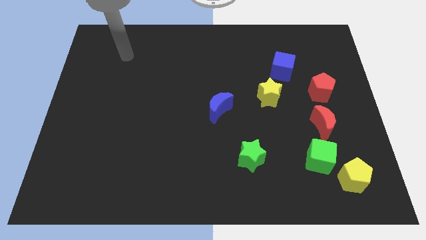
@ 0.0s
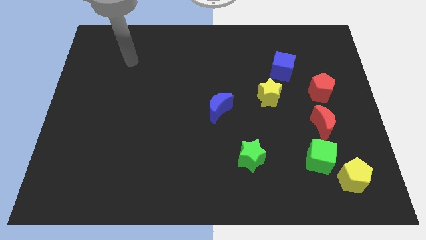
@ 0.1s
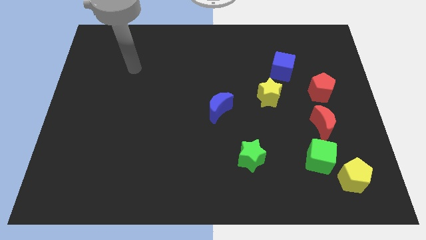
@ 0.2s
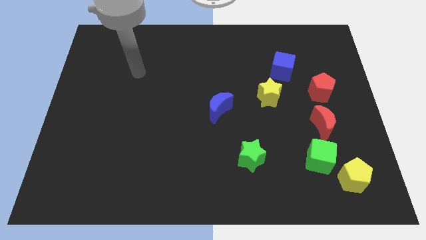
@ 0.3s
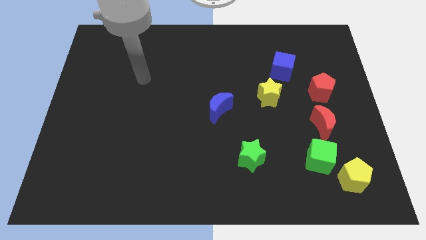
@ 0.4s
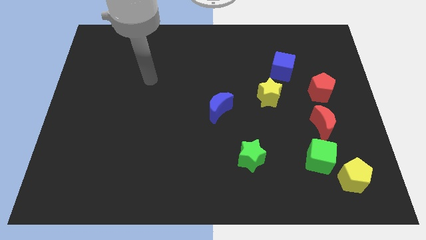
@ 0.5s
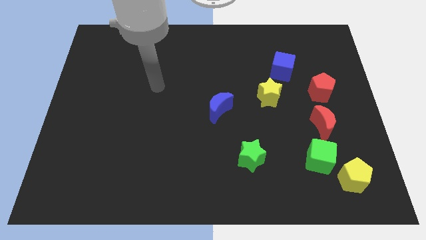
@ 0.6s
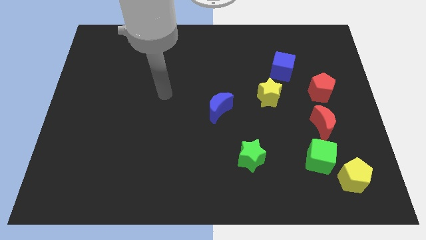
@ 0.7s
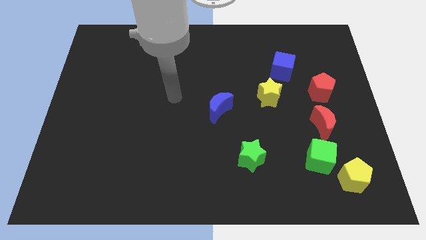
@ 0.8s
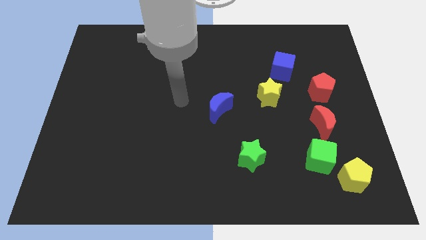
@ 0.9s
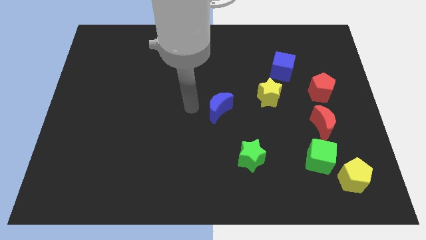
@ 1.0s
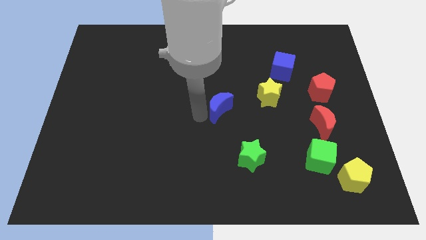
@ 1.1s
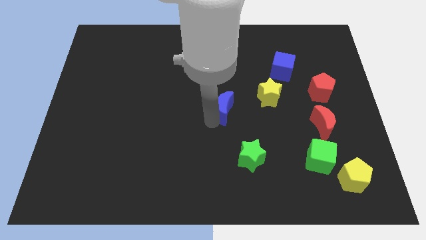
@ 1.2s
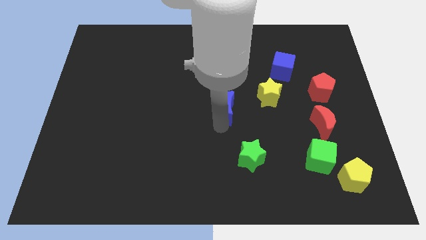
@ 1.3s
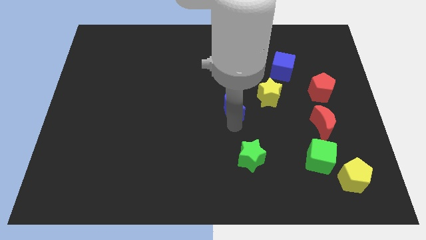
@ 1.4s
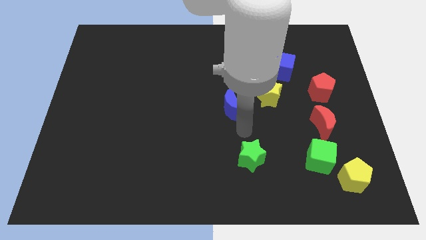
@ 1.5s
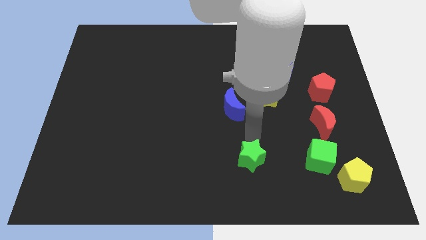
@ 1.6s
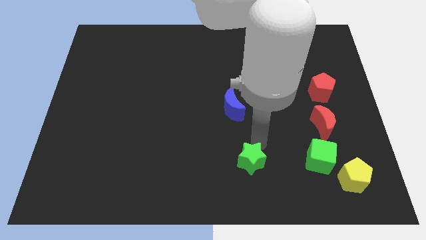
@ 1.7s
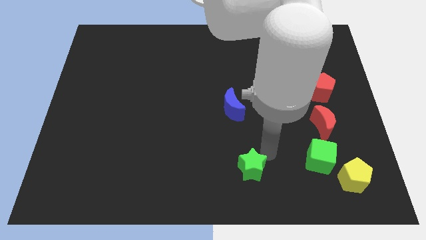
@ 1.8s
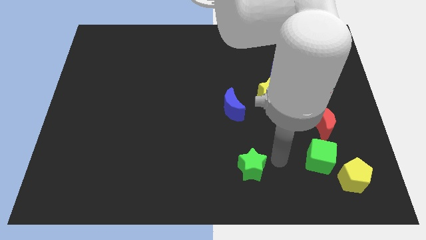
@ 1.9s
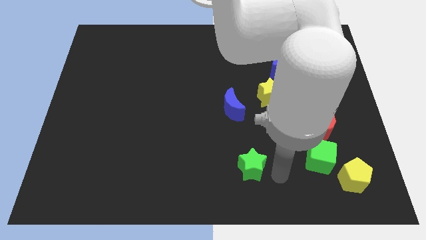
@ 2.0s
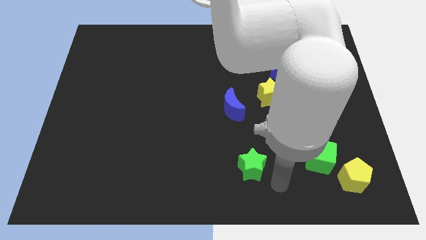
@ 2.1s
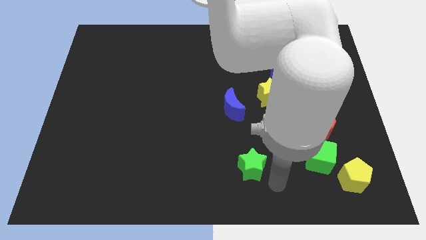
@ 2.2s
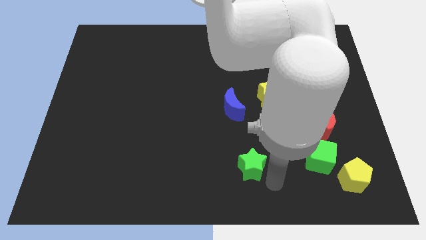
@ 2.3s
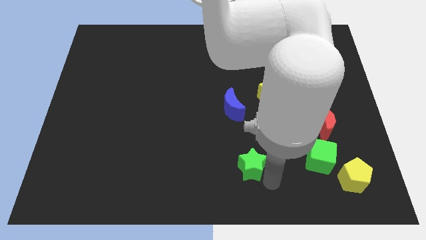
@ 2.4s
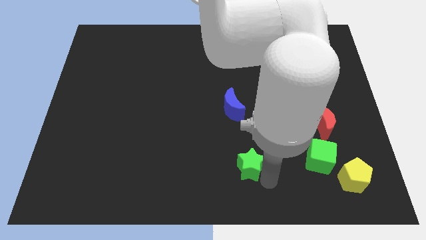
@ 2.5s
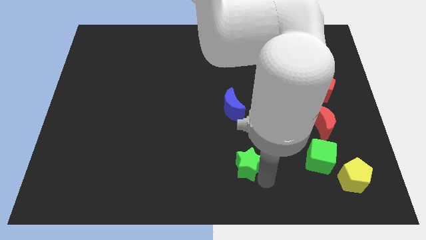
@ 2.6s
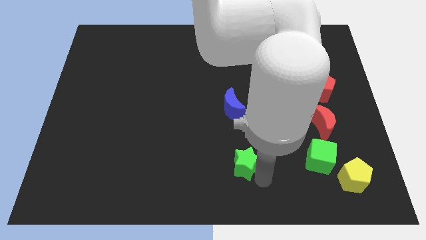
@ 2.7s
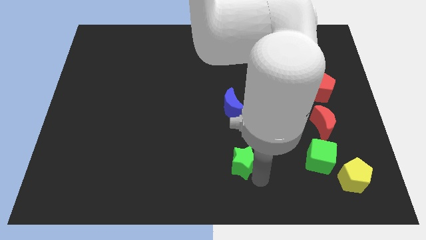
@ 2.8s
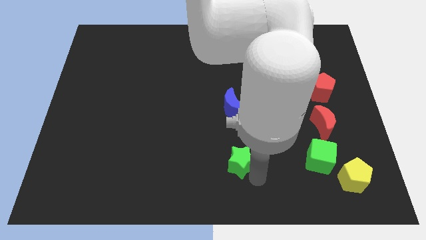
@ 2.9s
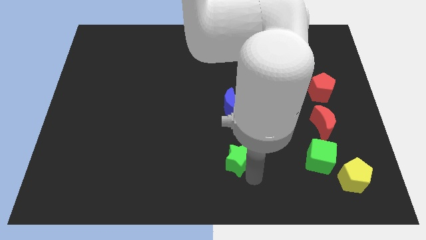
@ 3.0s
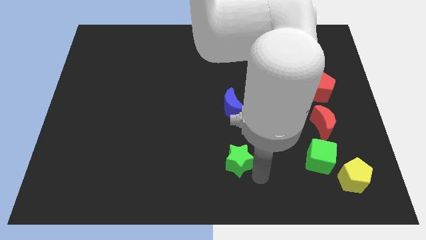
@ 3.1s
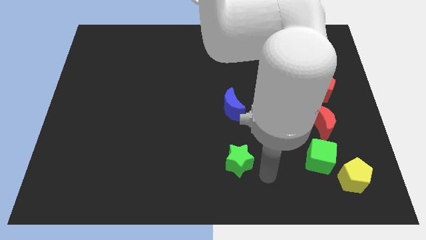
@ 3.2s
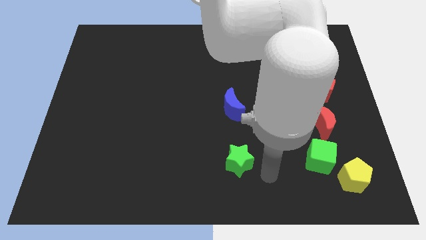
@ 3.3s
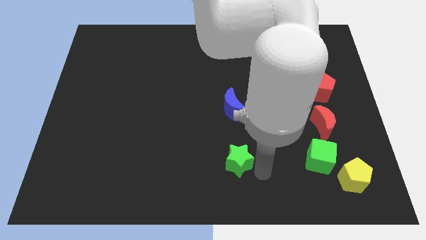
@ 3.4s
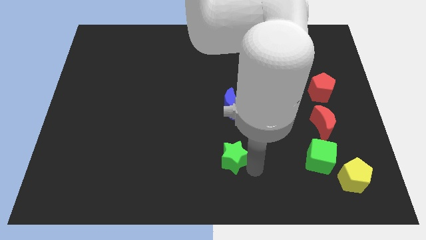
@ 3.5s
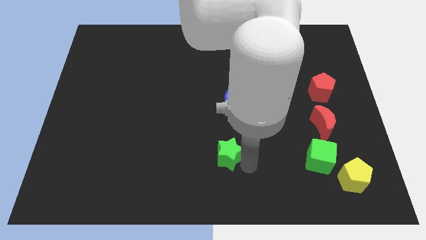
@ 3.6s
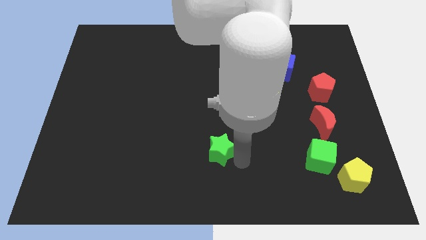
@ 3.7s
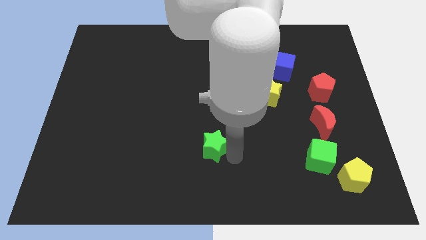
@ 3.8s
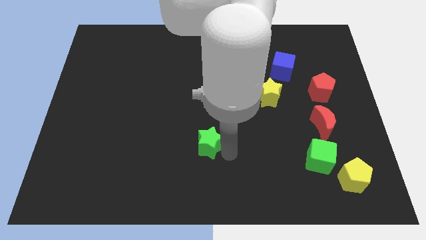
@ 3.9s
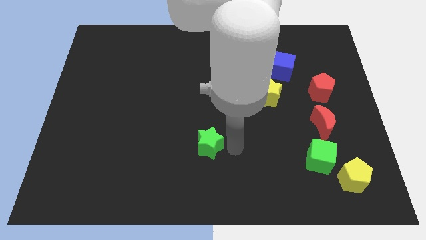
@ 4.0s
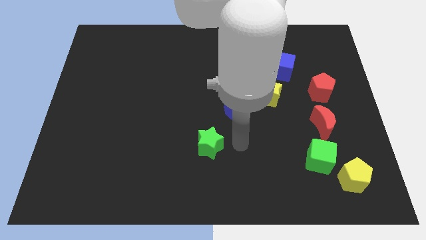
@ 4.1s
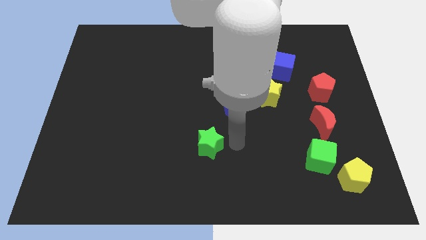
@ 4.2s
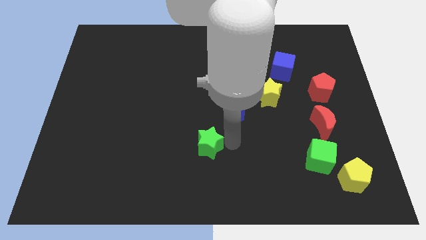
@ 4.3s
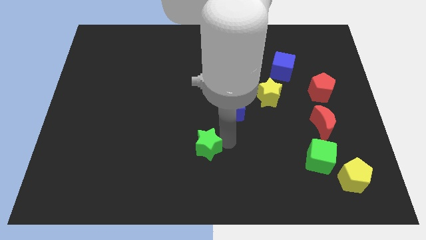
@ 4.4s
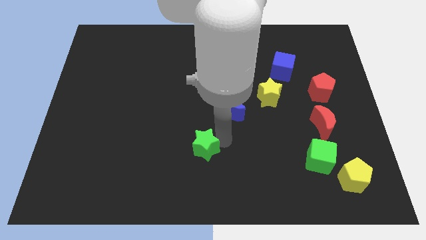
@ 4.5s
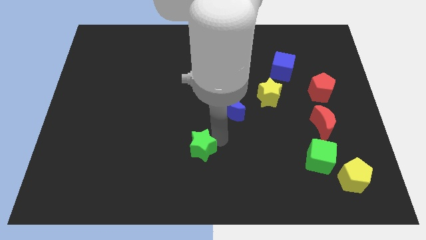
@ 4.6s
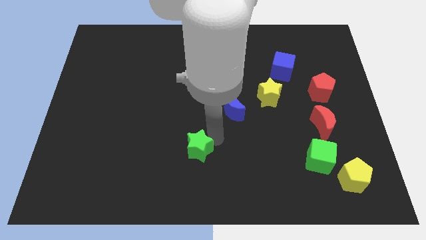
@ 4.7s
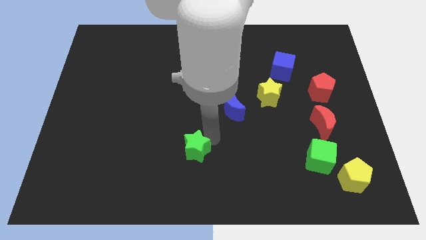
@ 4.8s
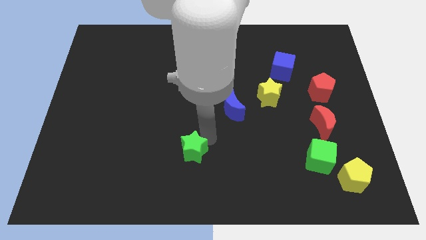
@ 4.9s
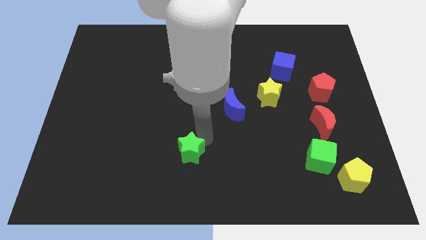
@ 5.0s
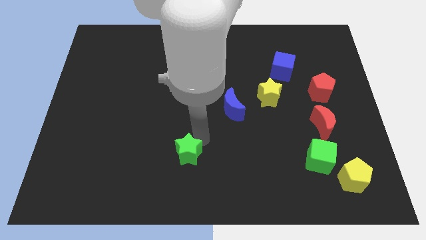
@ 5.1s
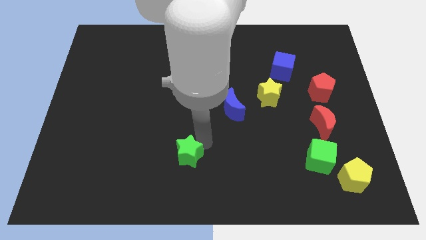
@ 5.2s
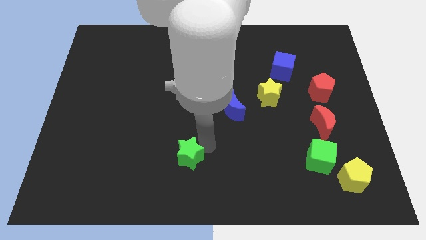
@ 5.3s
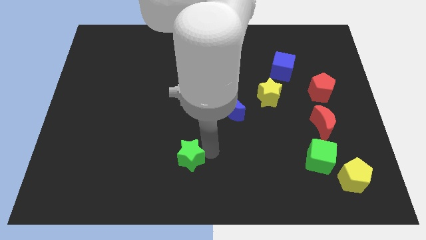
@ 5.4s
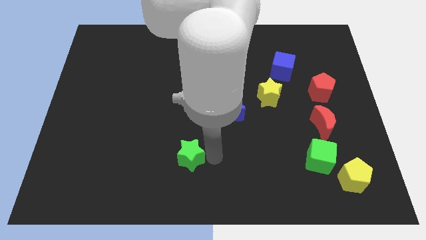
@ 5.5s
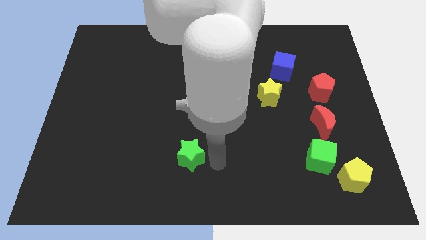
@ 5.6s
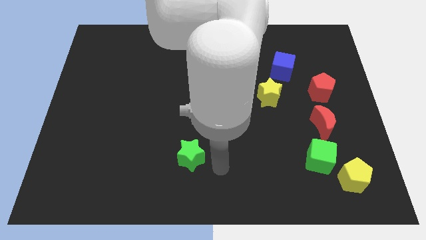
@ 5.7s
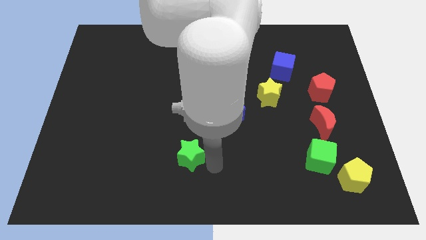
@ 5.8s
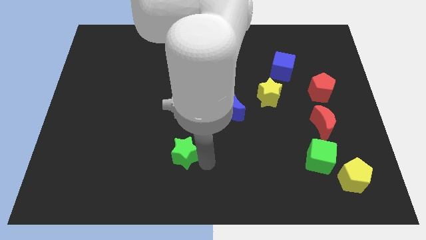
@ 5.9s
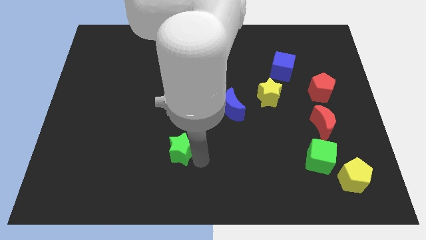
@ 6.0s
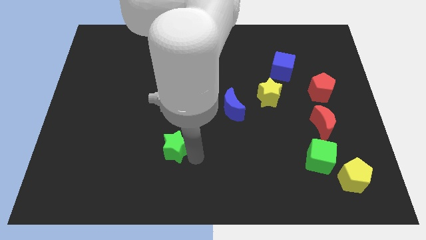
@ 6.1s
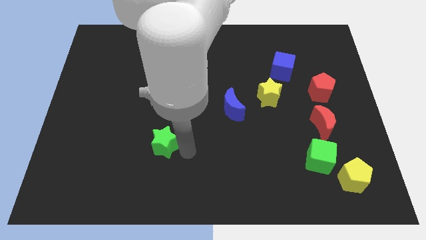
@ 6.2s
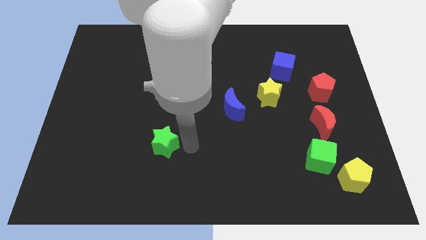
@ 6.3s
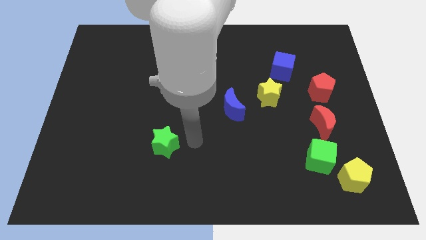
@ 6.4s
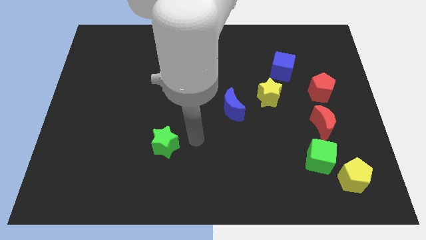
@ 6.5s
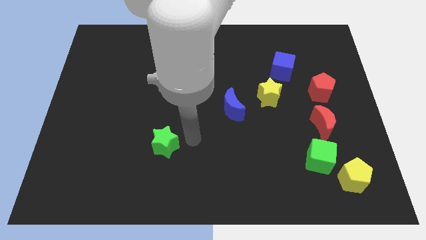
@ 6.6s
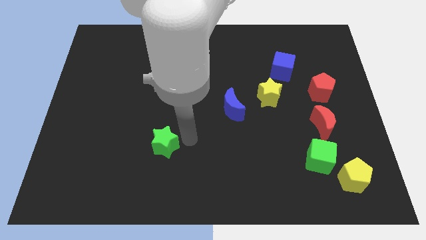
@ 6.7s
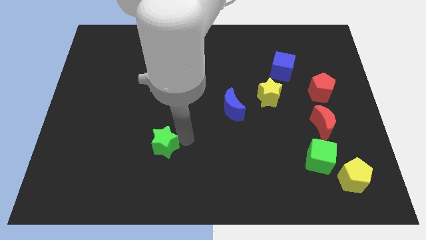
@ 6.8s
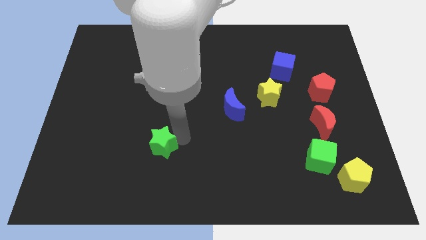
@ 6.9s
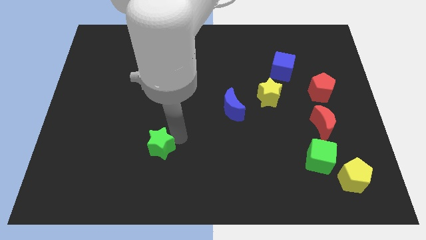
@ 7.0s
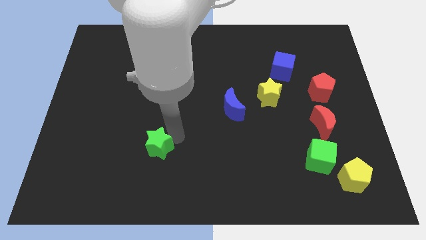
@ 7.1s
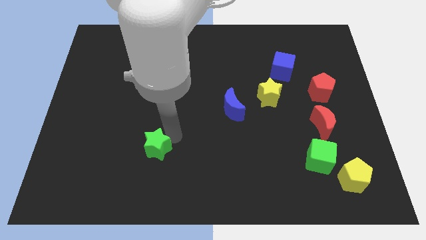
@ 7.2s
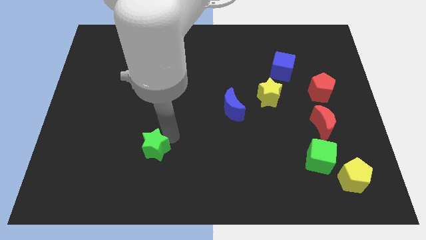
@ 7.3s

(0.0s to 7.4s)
move the green star left

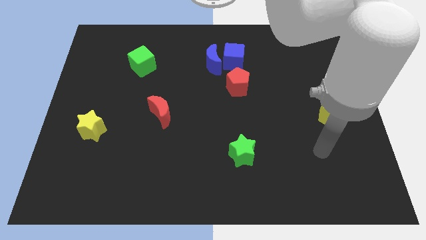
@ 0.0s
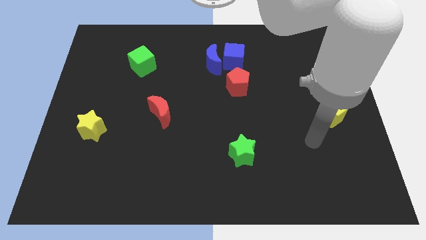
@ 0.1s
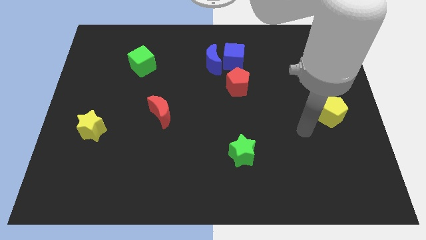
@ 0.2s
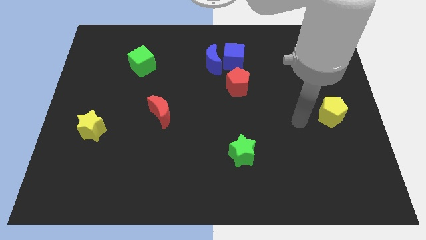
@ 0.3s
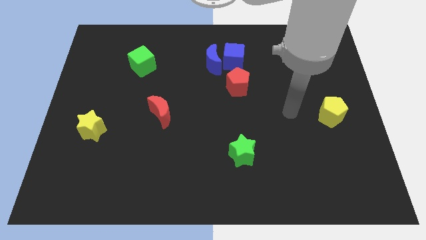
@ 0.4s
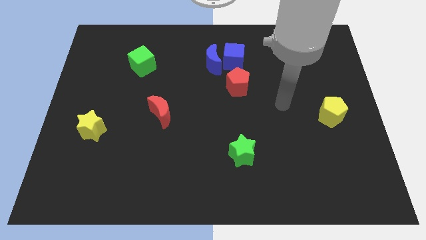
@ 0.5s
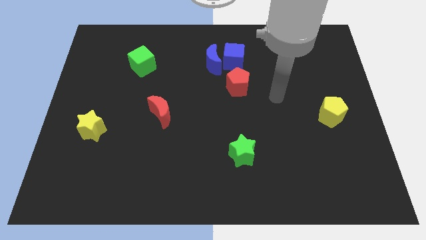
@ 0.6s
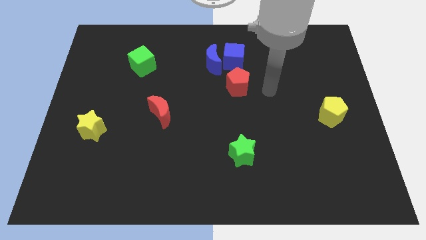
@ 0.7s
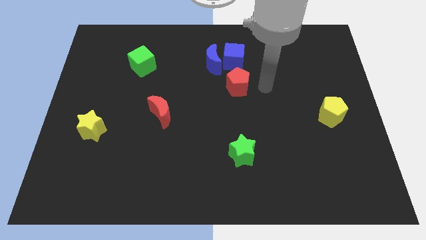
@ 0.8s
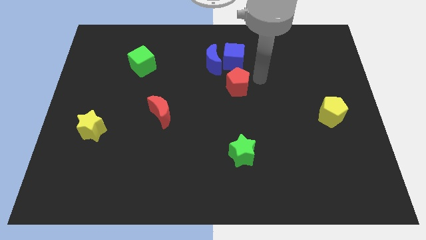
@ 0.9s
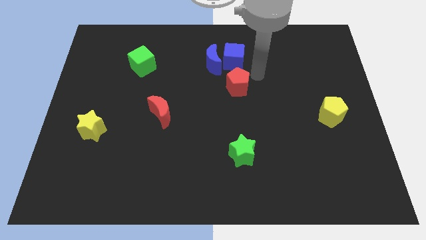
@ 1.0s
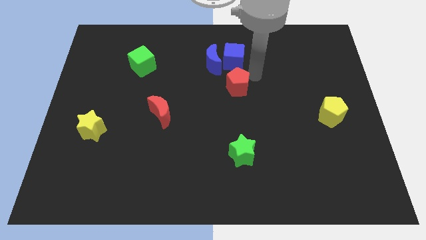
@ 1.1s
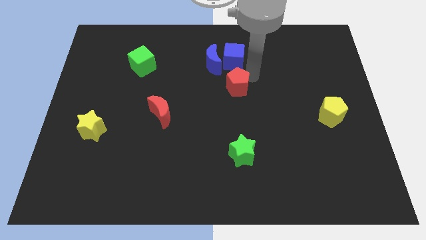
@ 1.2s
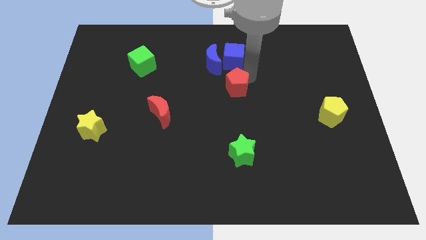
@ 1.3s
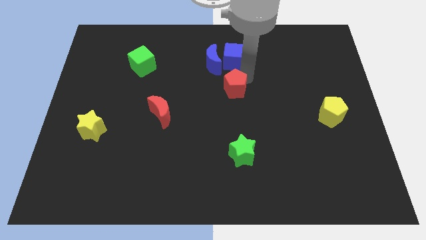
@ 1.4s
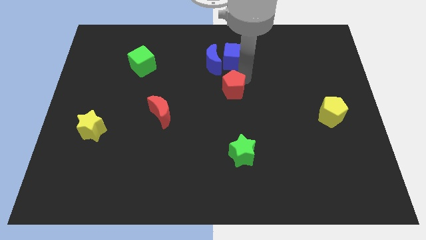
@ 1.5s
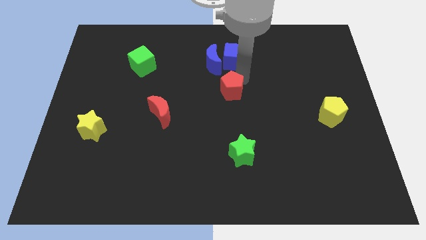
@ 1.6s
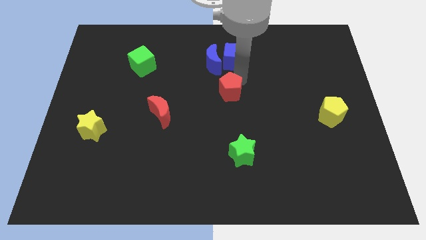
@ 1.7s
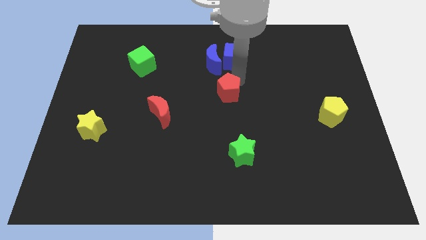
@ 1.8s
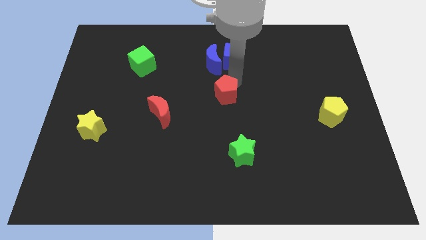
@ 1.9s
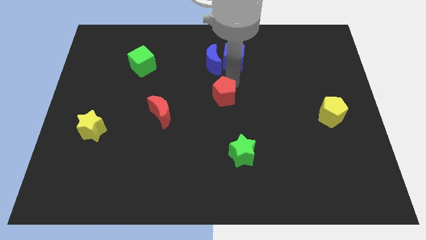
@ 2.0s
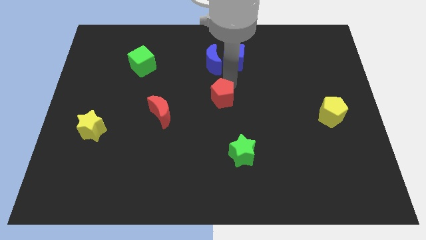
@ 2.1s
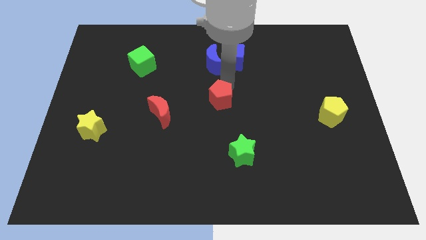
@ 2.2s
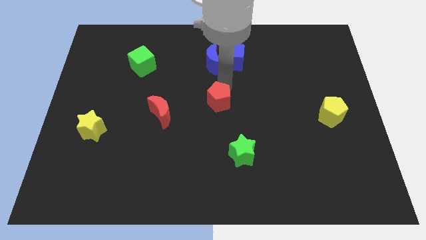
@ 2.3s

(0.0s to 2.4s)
slide the red pentagon down and to the left a bit
